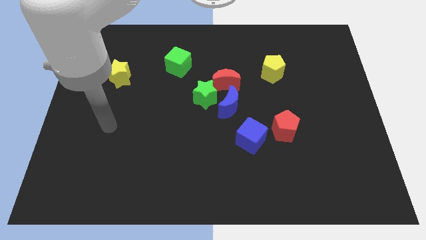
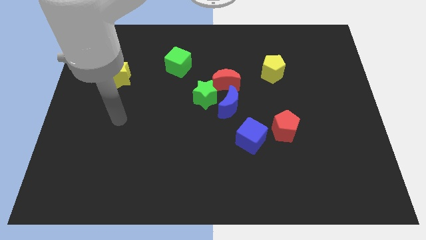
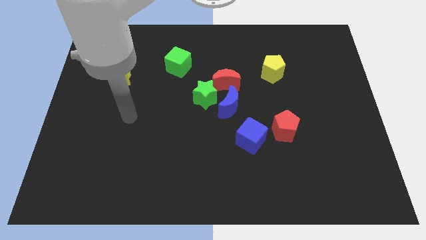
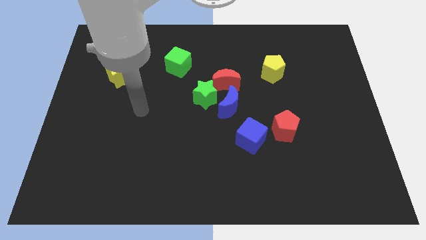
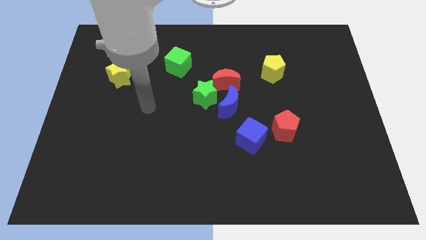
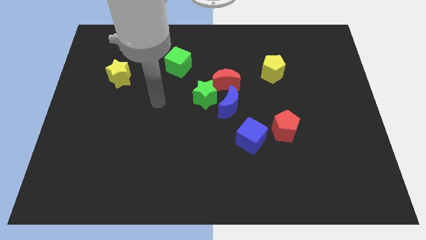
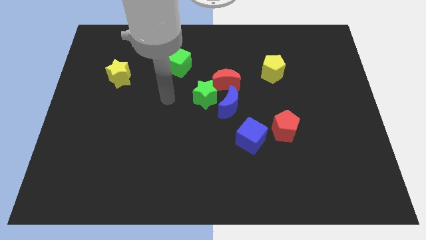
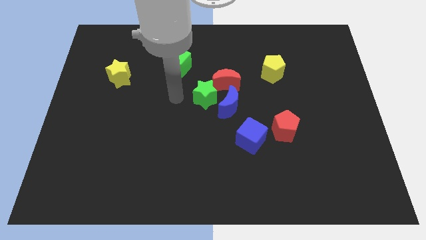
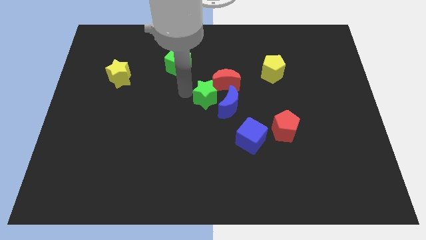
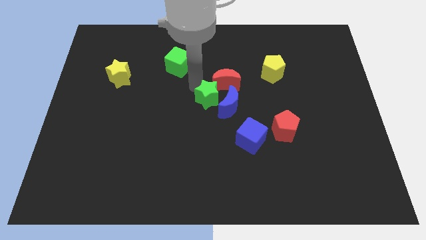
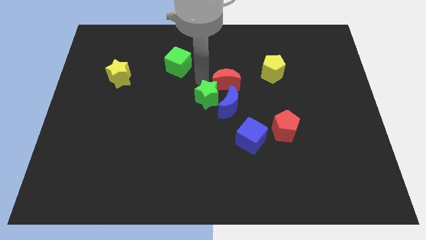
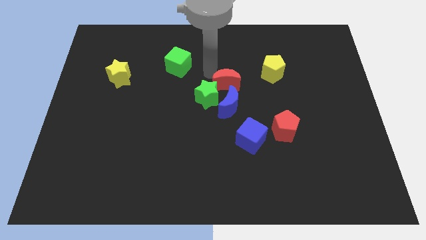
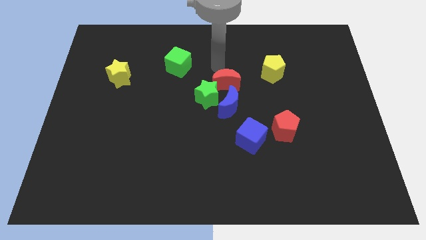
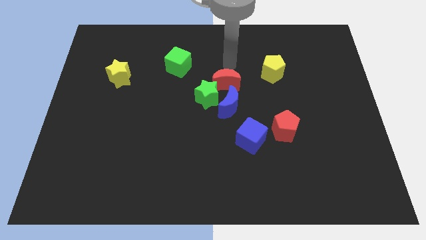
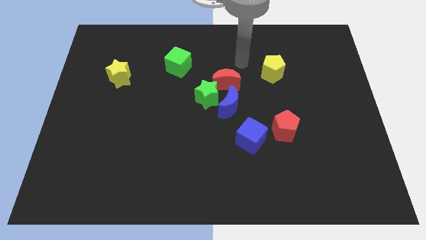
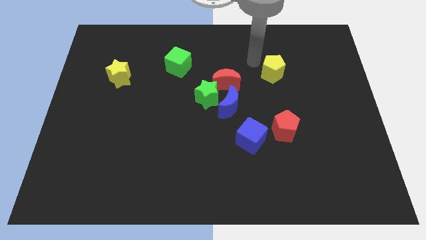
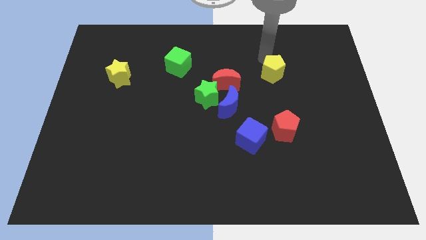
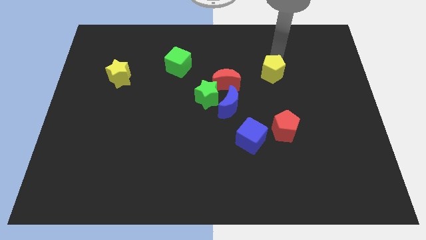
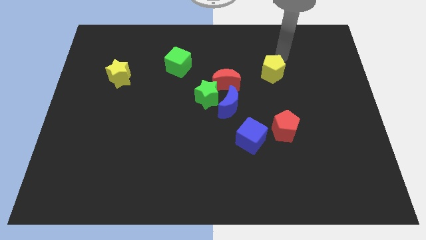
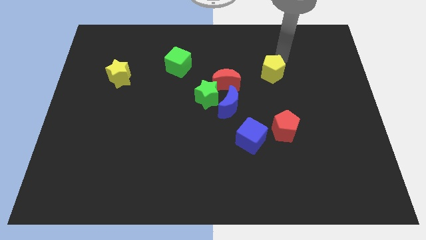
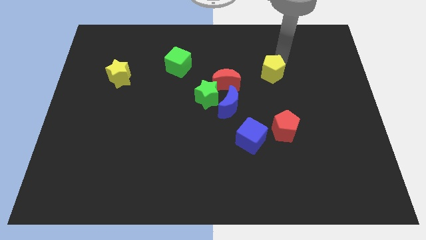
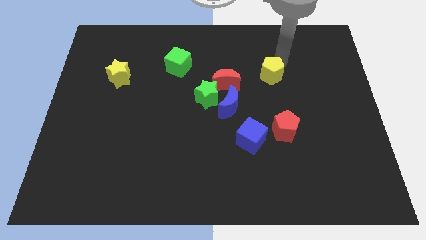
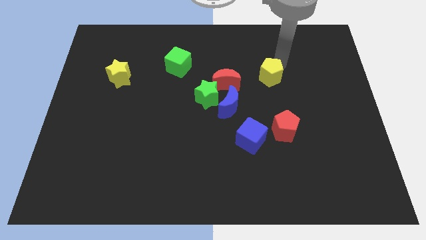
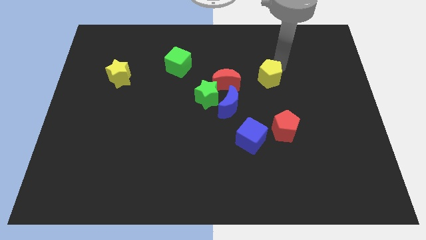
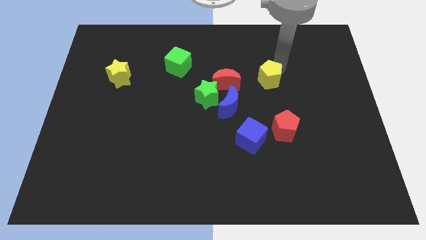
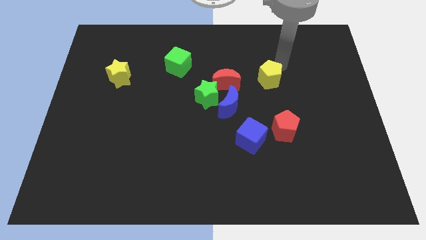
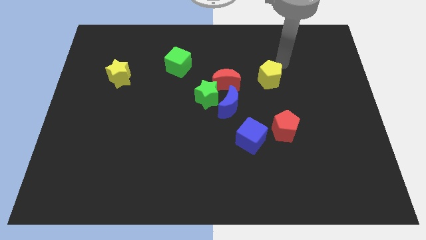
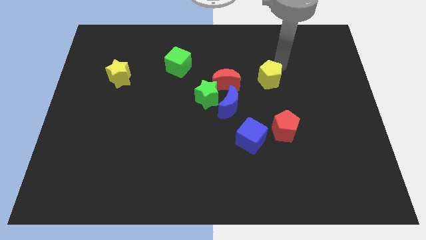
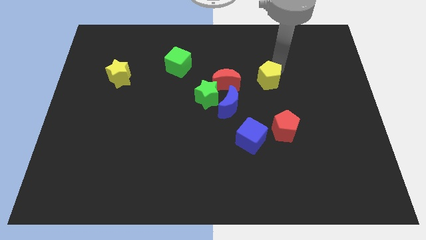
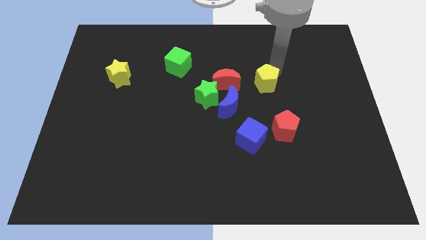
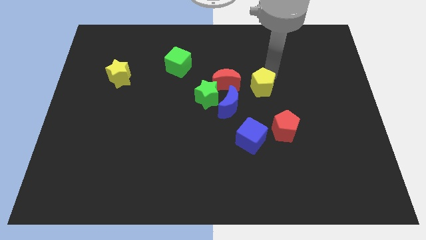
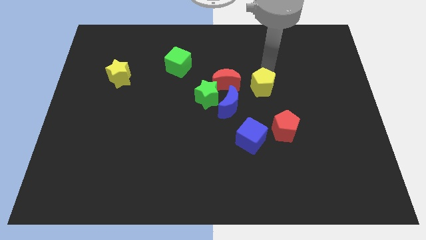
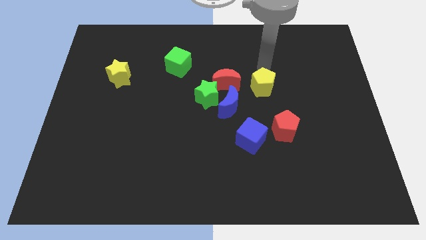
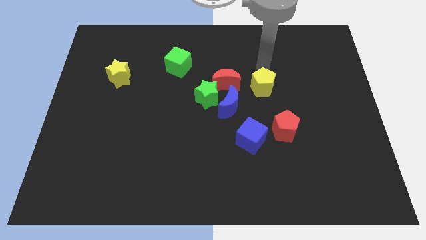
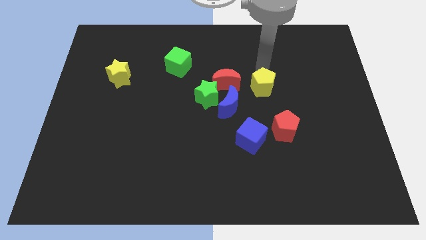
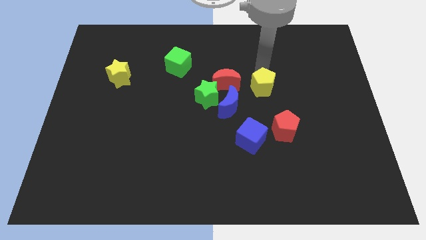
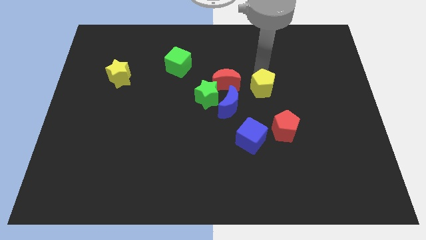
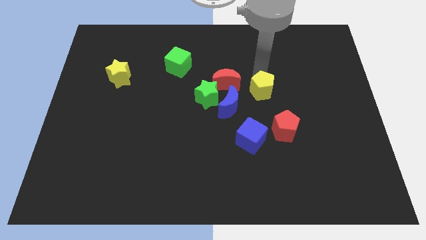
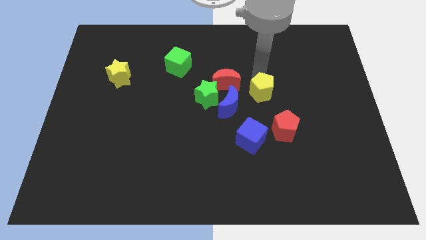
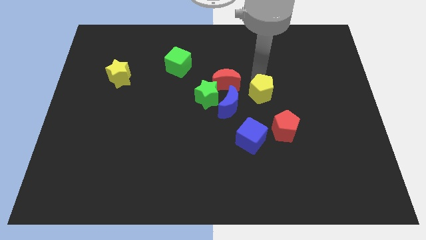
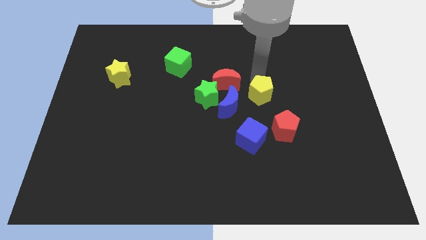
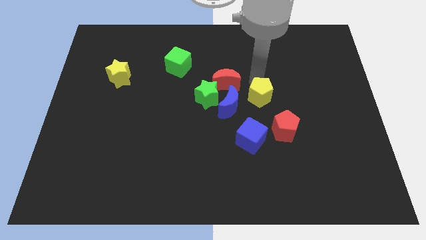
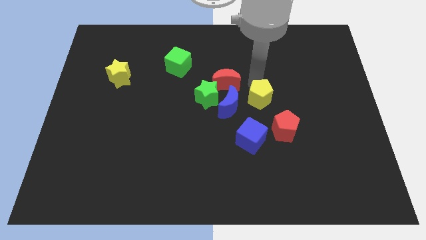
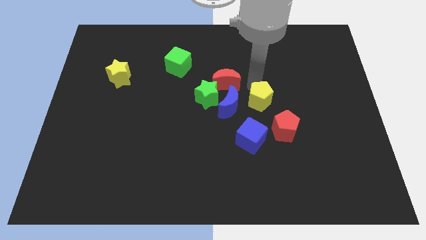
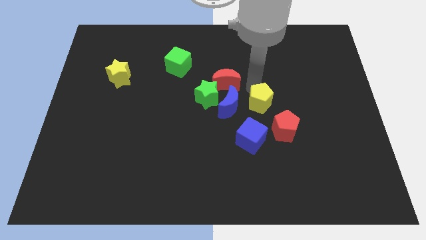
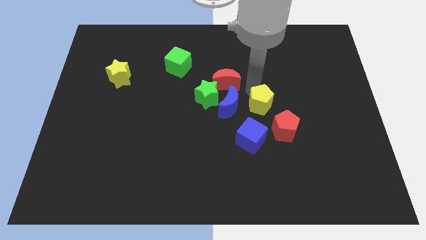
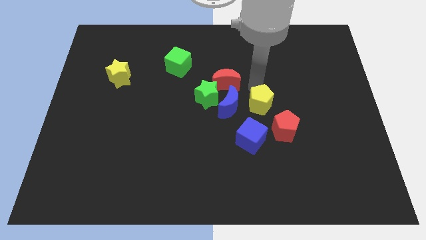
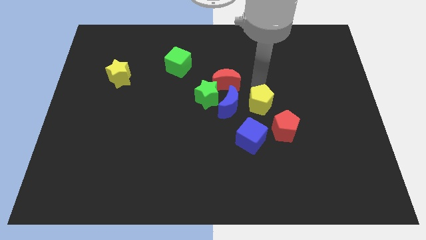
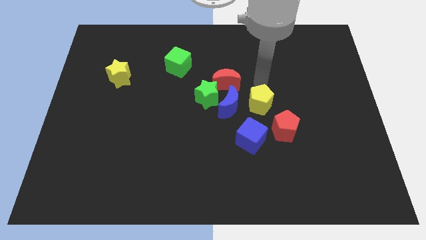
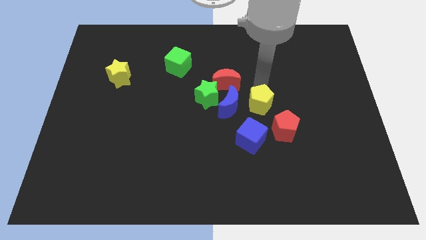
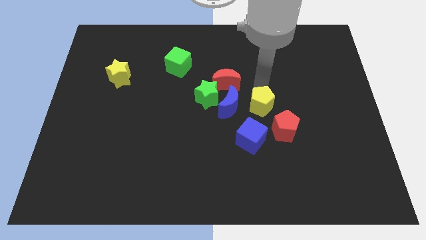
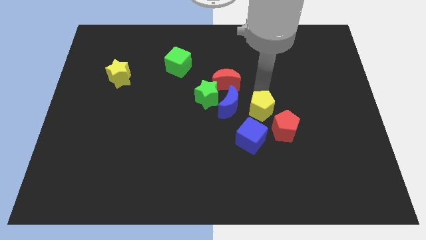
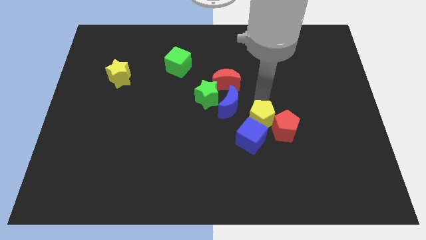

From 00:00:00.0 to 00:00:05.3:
put the yellow pentagon next to the blue cube

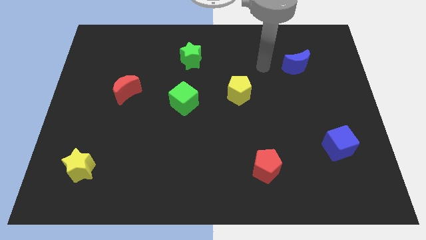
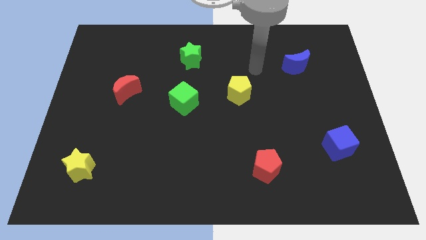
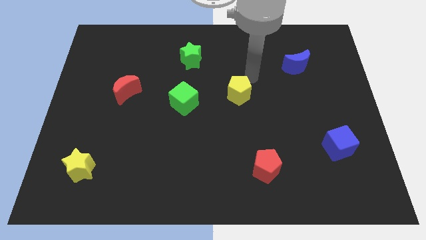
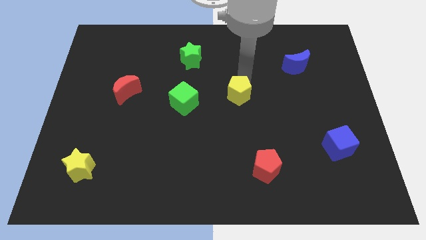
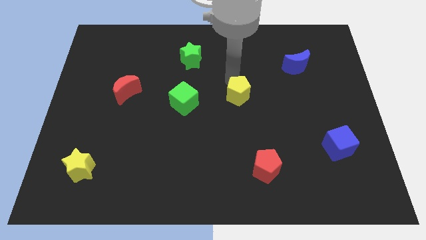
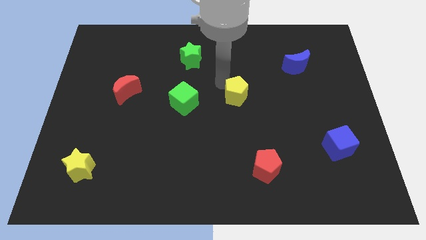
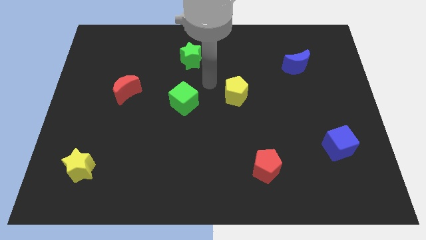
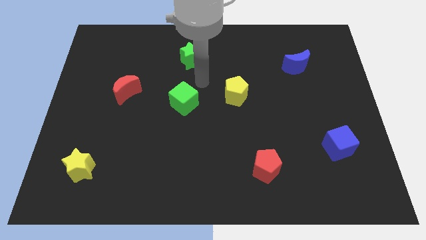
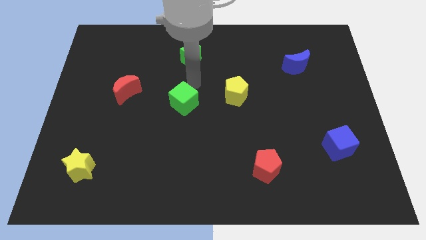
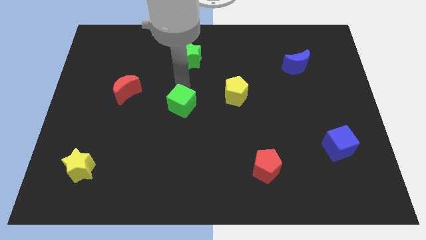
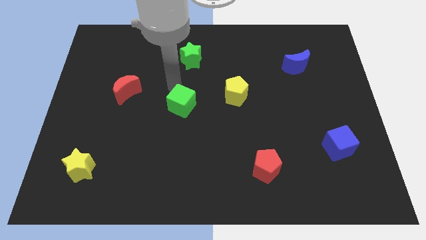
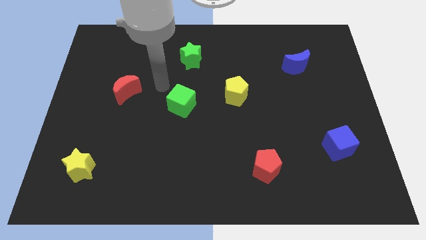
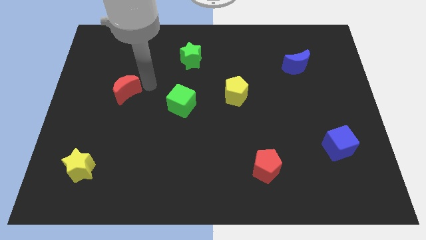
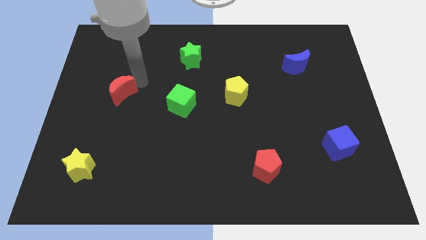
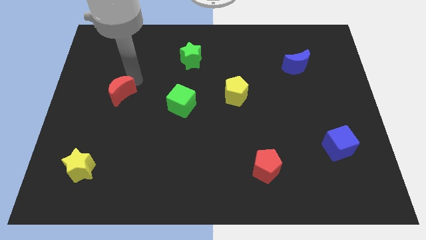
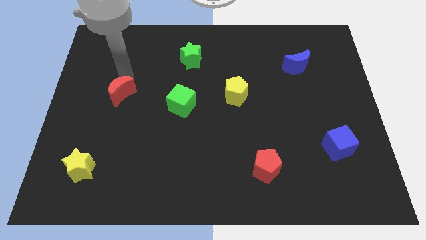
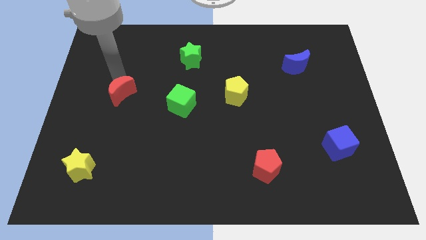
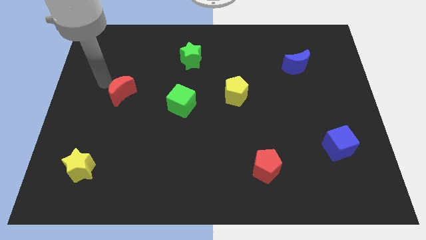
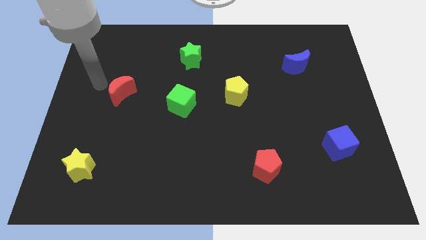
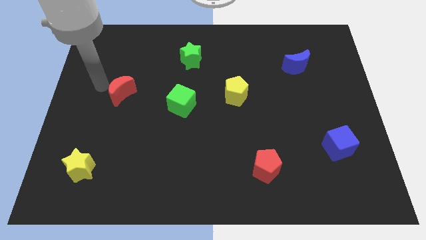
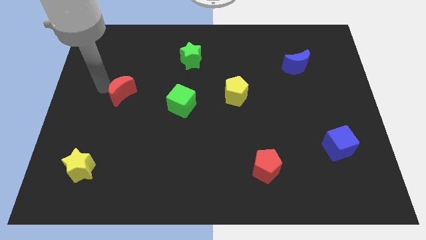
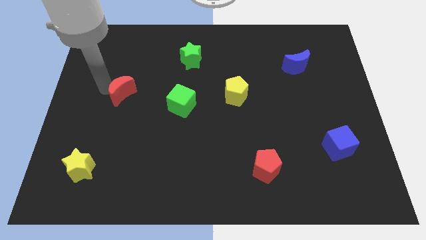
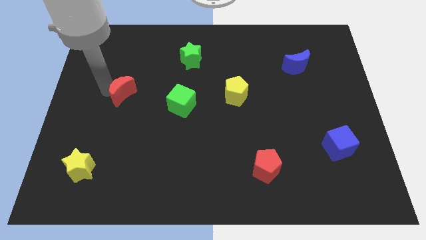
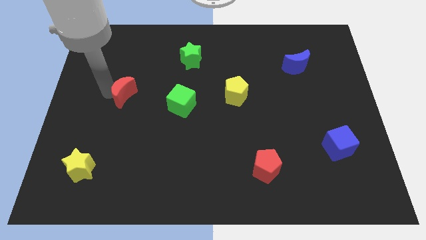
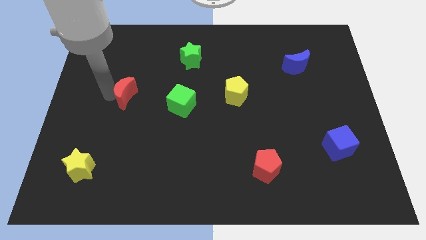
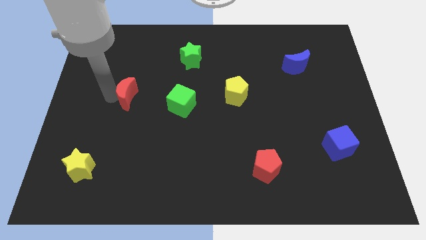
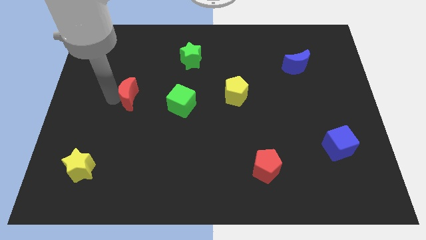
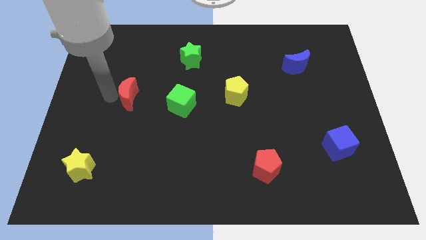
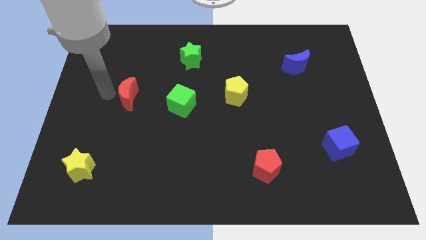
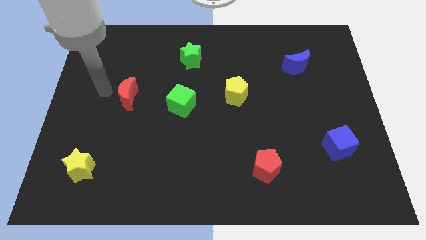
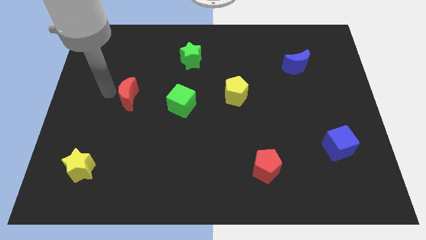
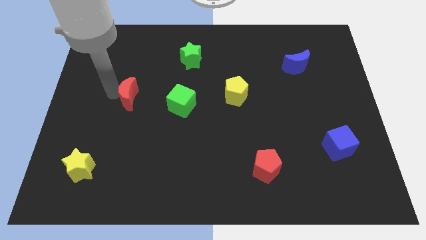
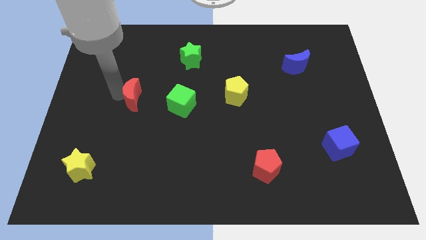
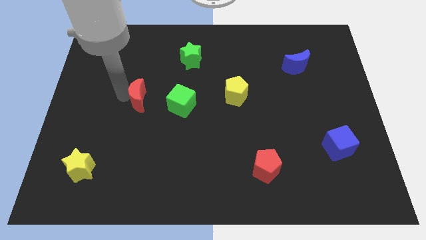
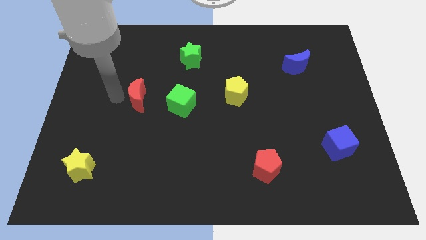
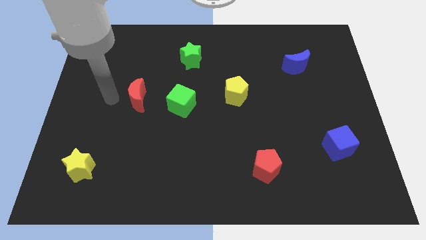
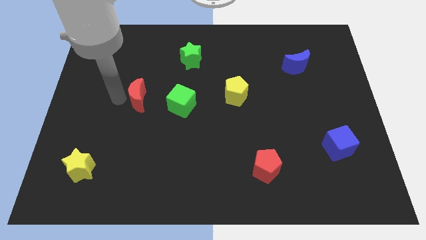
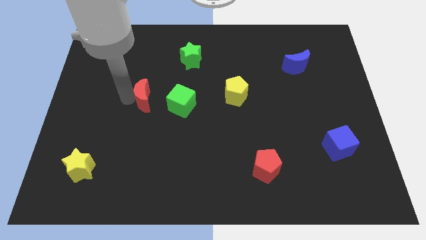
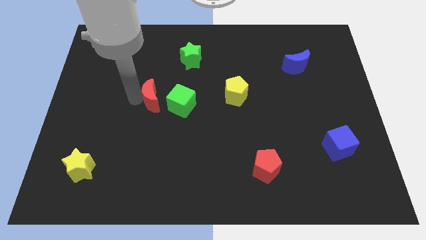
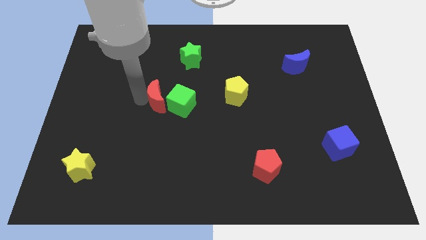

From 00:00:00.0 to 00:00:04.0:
slide the red moon towards the green cube
